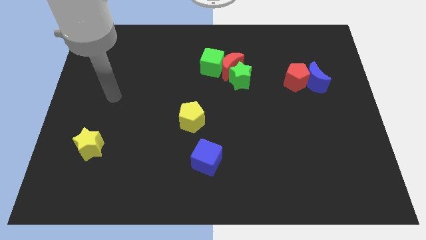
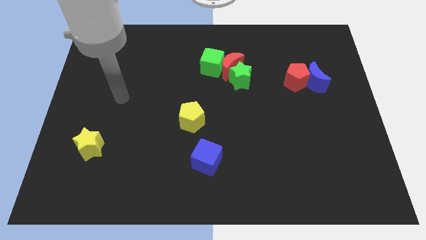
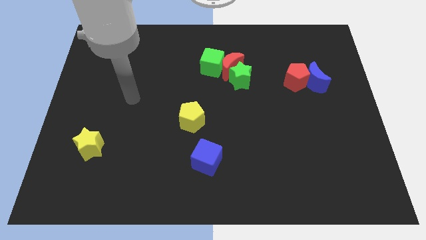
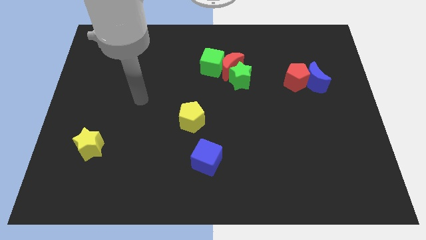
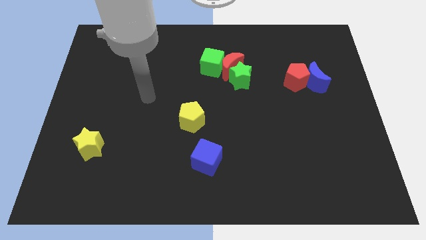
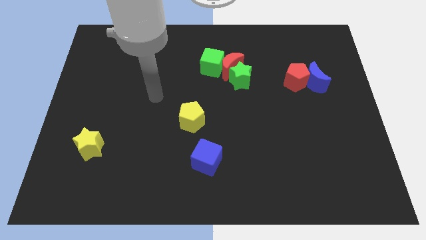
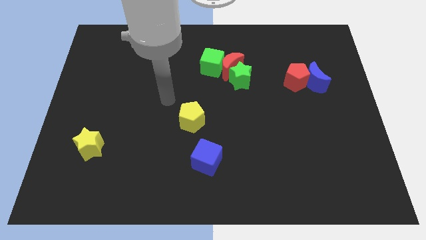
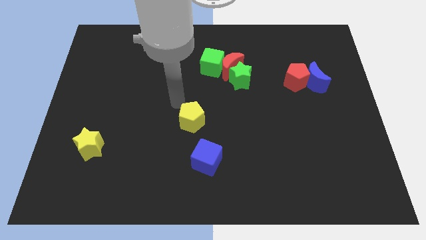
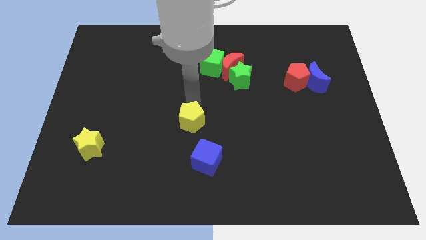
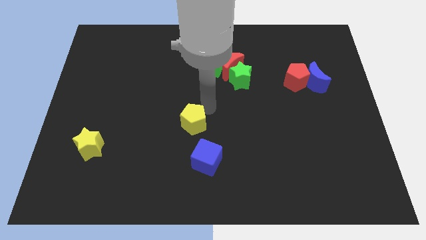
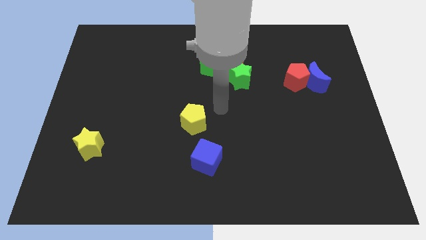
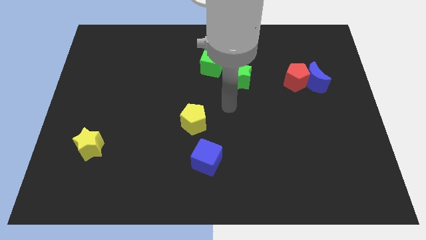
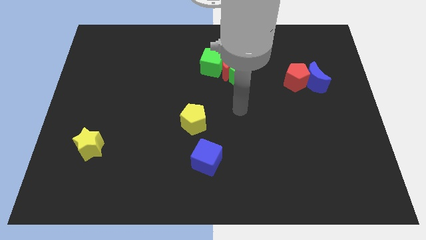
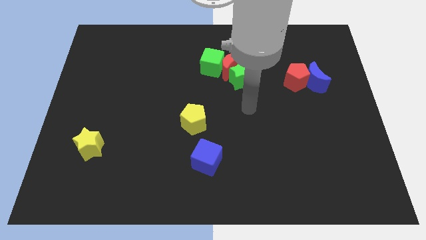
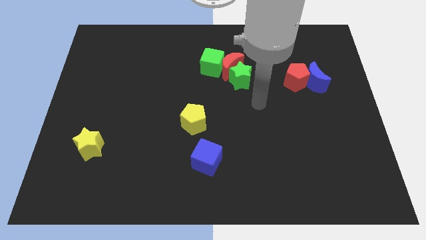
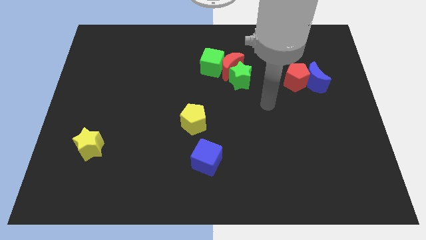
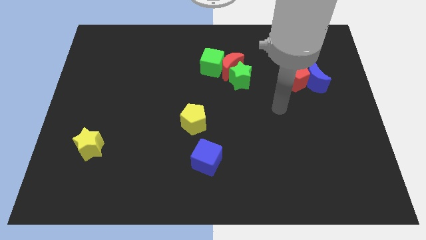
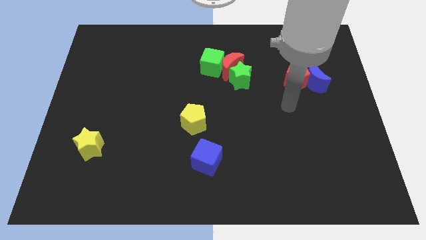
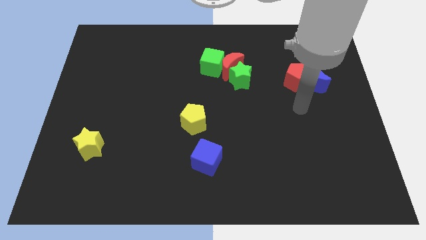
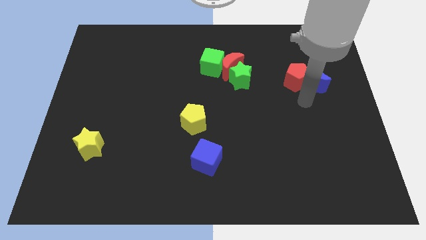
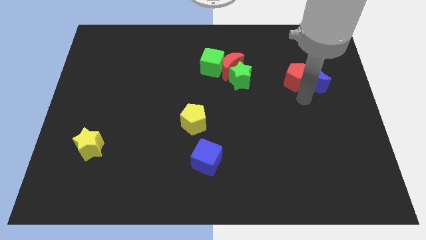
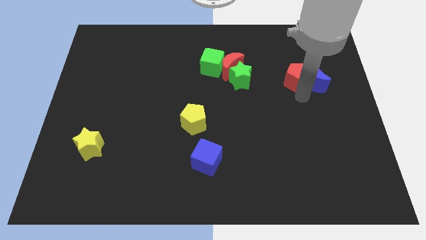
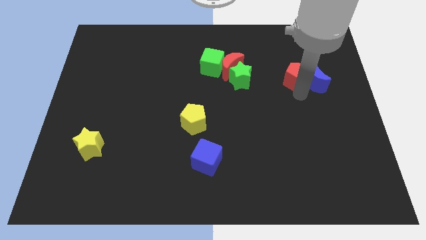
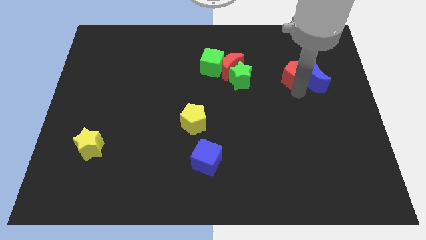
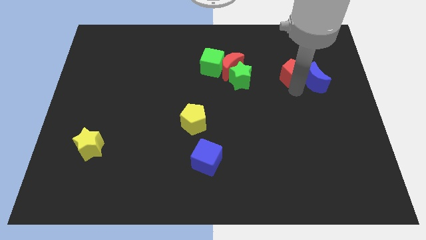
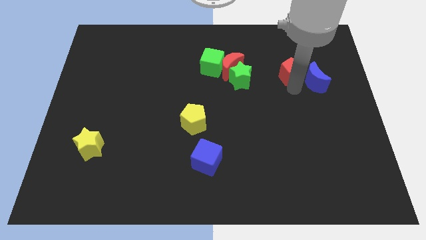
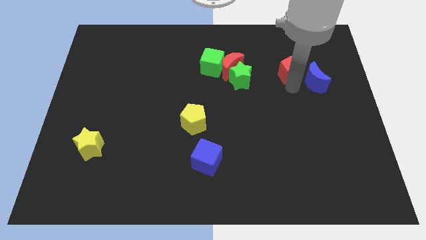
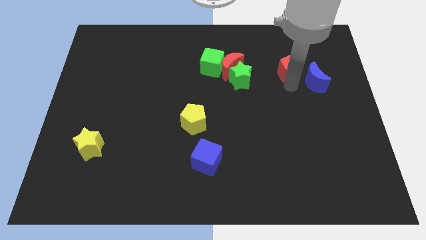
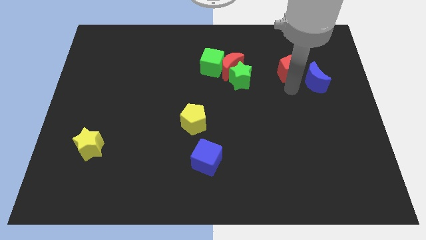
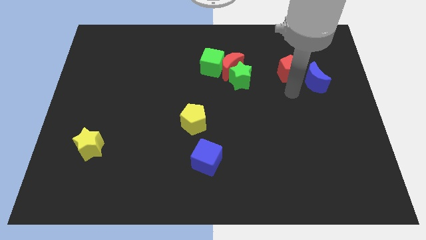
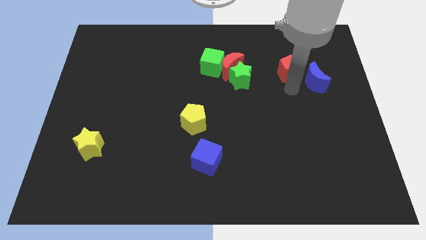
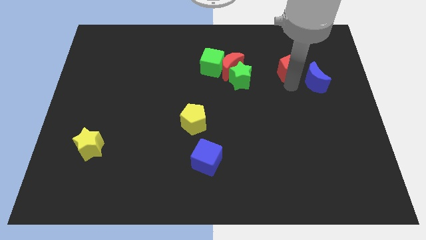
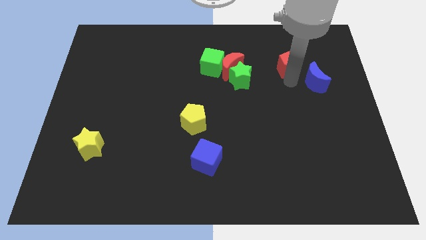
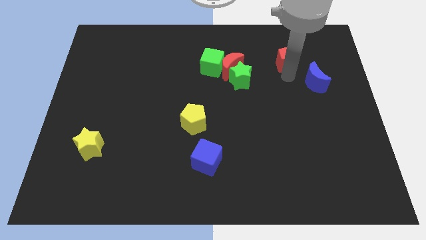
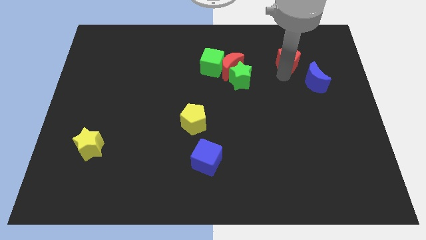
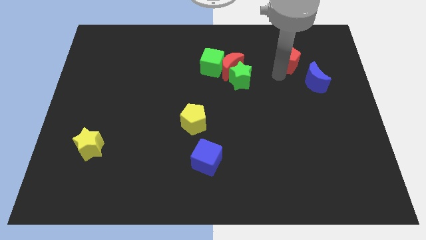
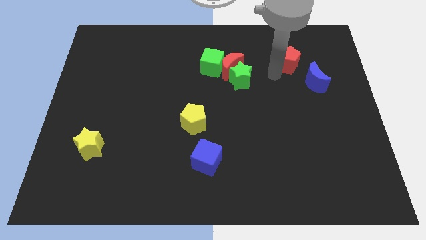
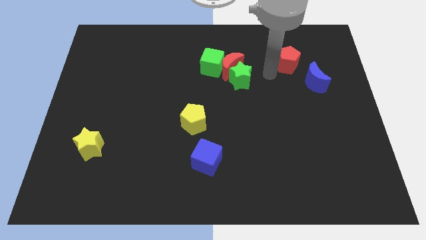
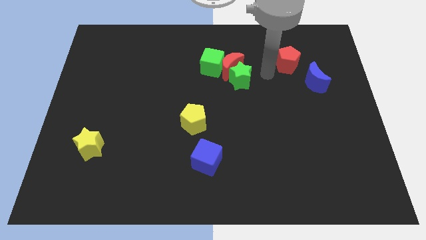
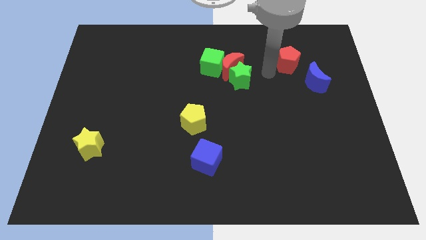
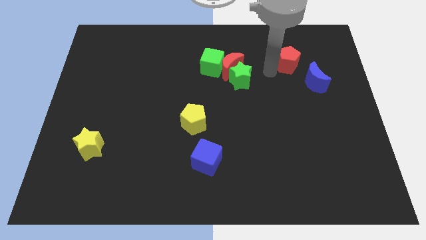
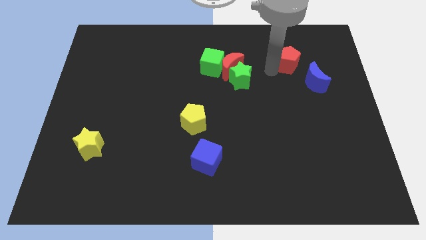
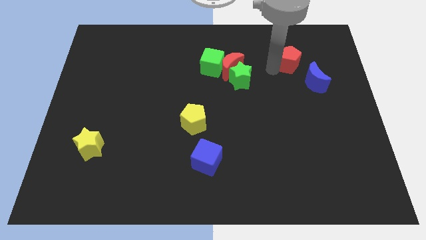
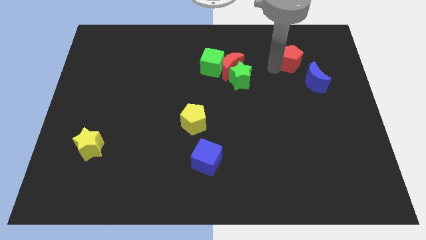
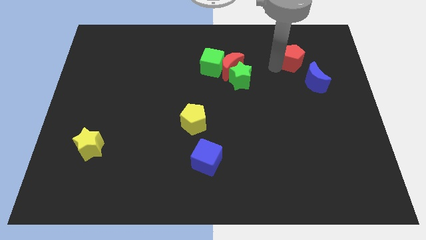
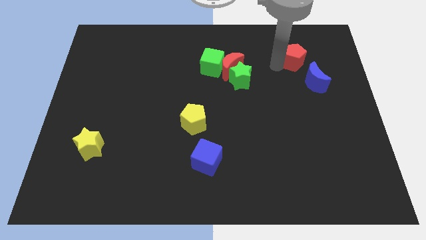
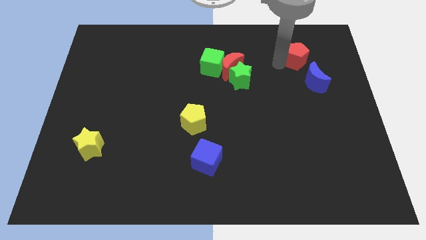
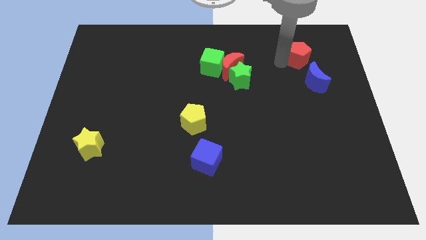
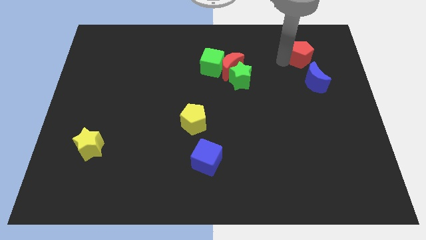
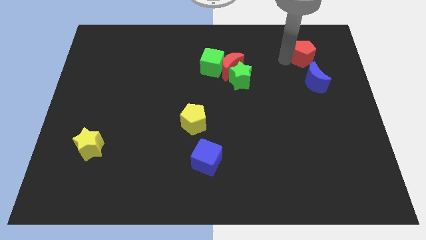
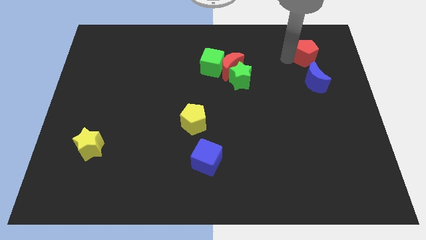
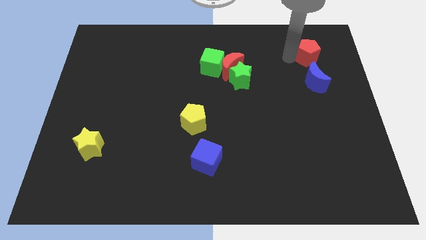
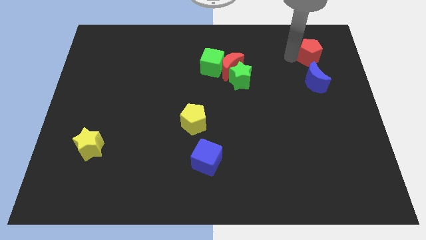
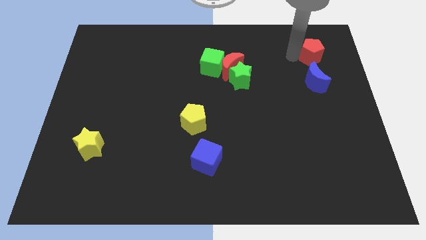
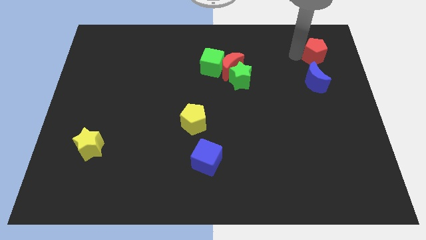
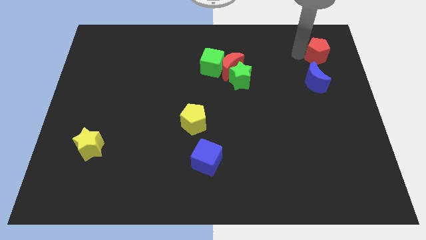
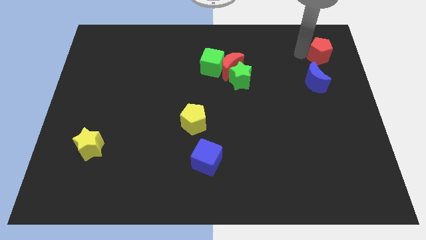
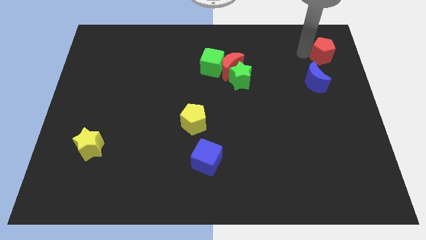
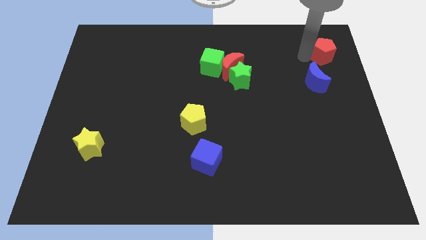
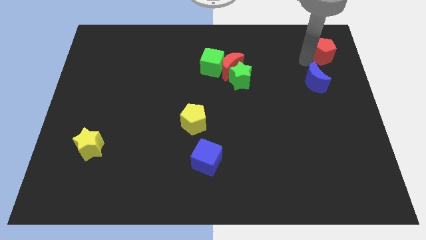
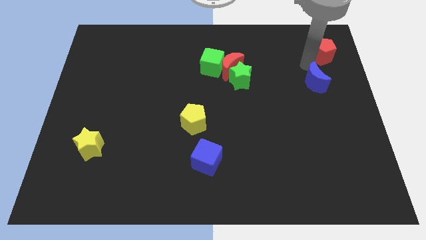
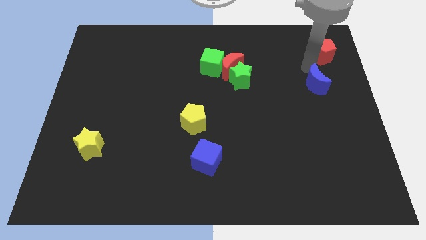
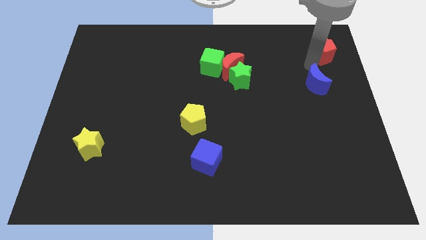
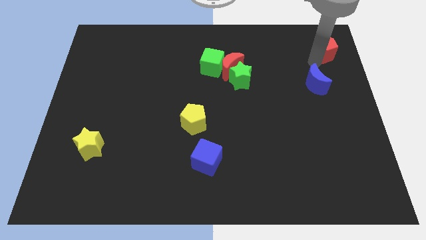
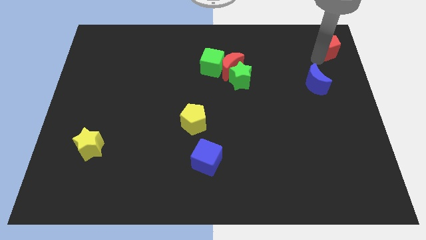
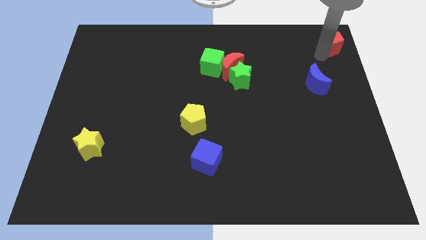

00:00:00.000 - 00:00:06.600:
move the red pentagon to the top right corner
